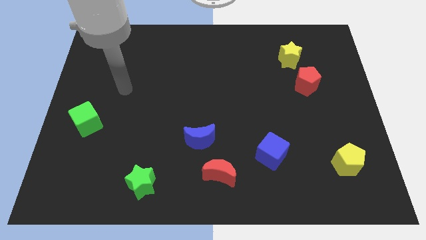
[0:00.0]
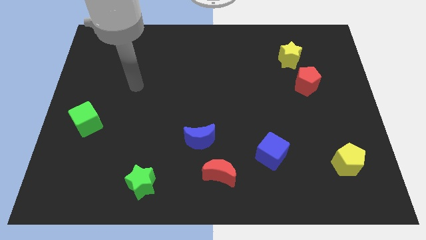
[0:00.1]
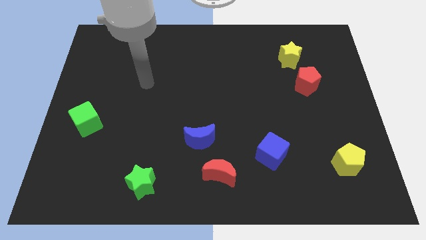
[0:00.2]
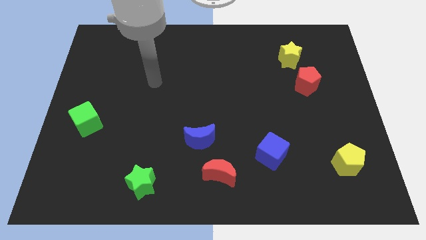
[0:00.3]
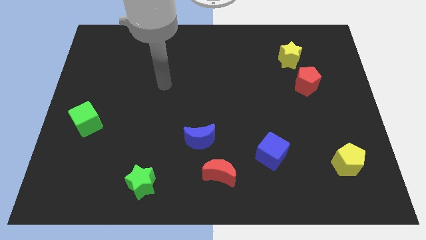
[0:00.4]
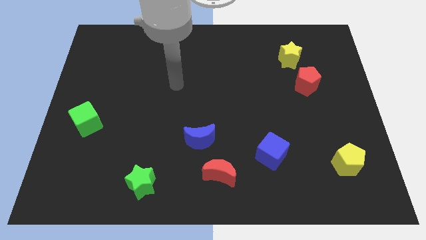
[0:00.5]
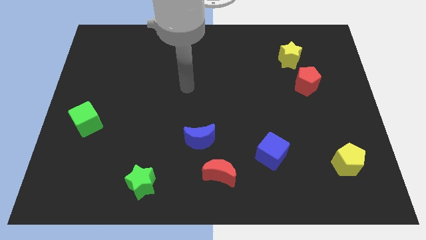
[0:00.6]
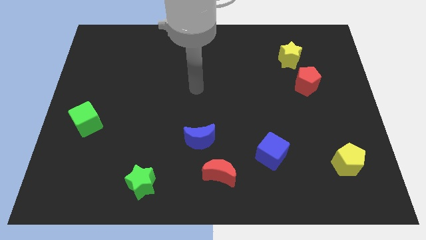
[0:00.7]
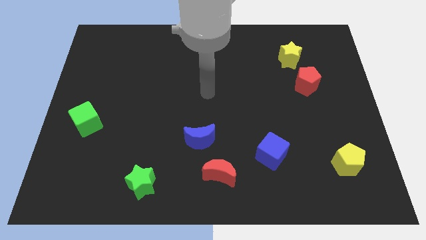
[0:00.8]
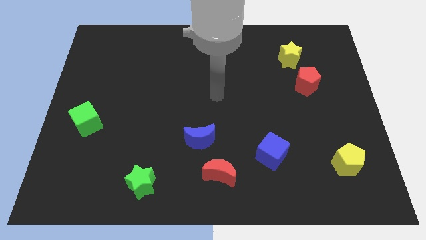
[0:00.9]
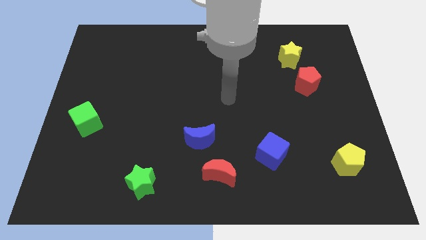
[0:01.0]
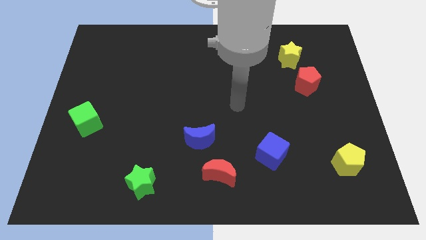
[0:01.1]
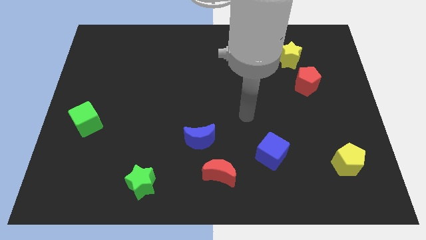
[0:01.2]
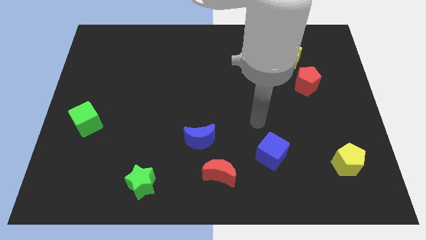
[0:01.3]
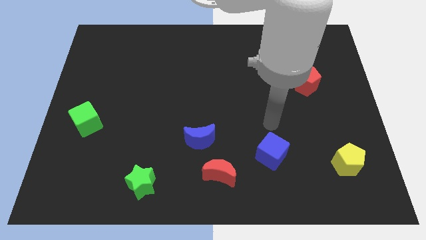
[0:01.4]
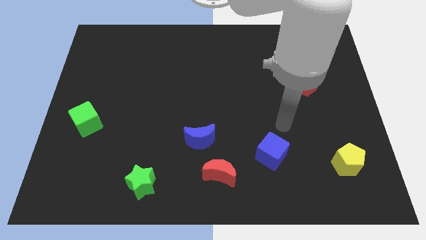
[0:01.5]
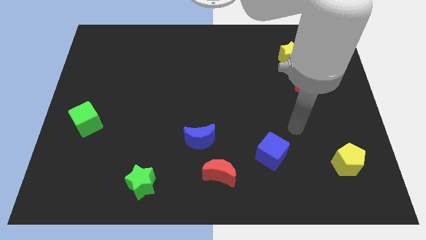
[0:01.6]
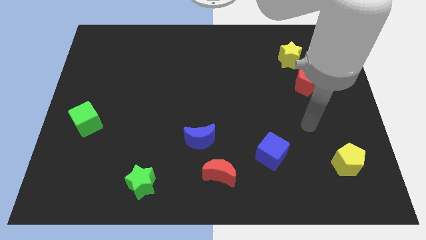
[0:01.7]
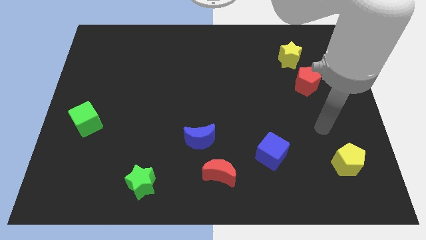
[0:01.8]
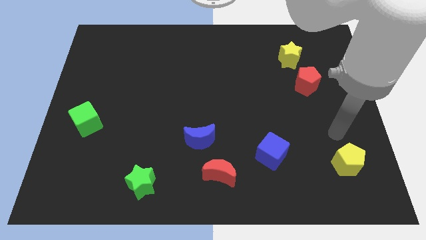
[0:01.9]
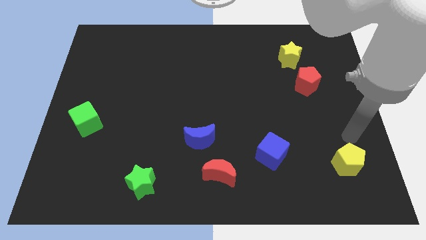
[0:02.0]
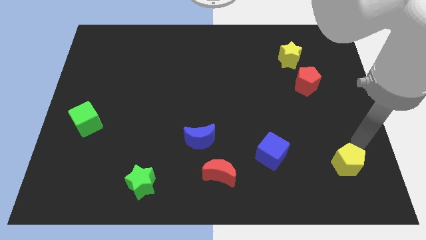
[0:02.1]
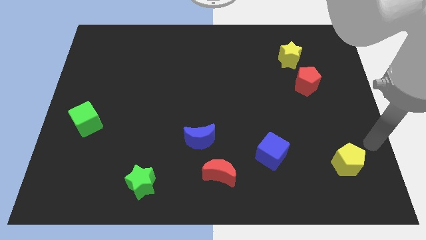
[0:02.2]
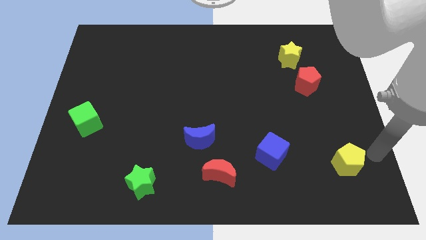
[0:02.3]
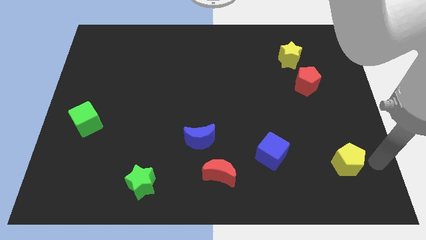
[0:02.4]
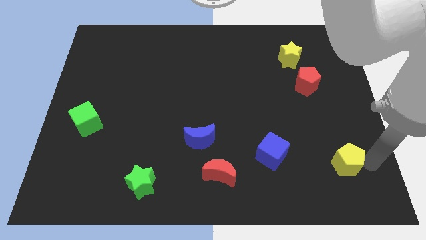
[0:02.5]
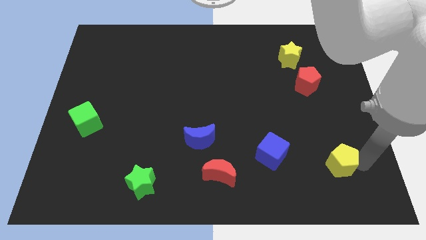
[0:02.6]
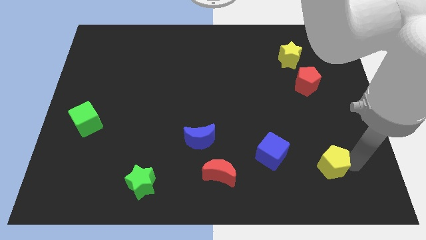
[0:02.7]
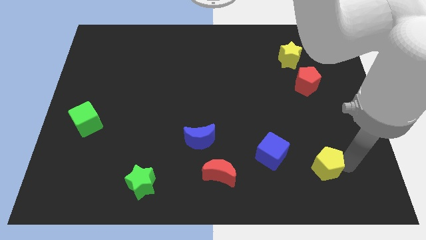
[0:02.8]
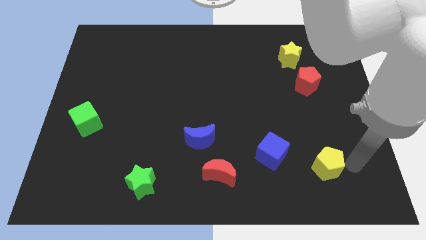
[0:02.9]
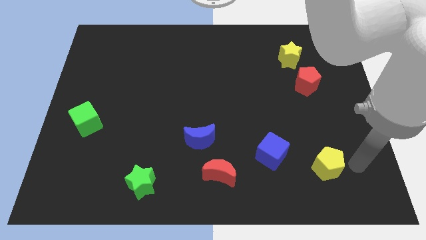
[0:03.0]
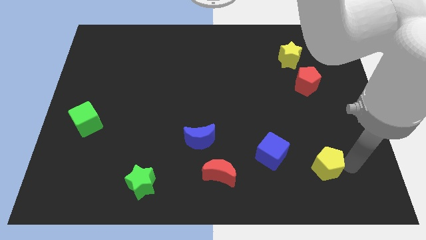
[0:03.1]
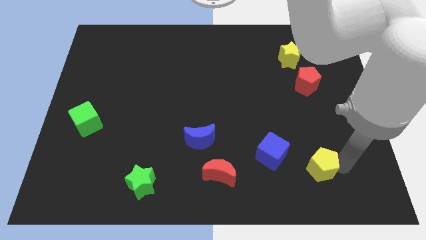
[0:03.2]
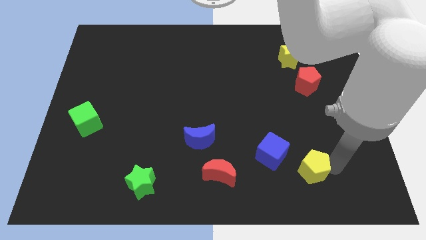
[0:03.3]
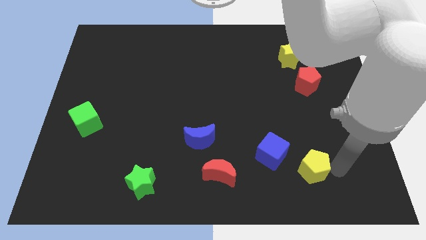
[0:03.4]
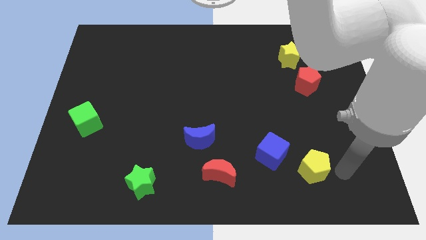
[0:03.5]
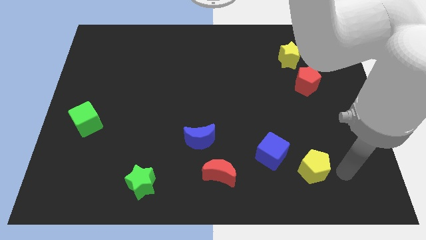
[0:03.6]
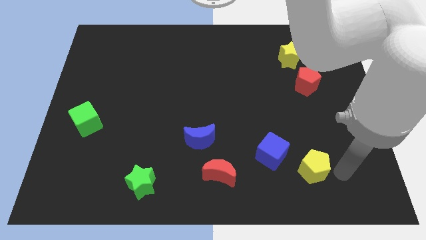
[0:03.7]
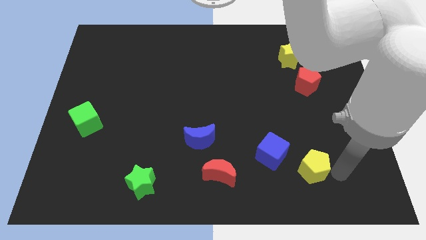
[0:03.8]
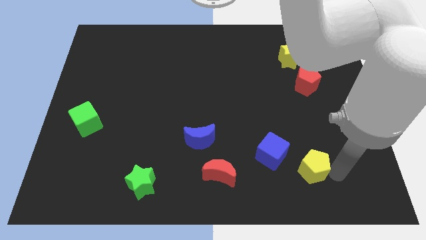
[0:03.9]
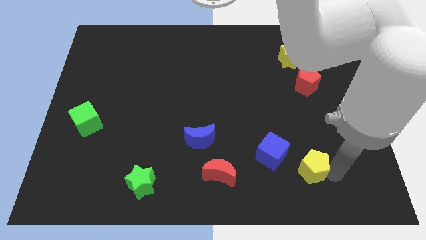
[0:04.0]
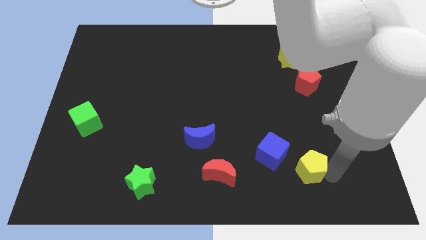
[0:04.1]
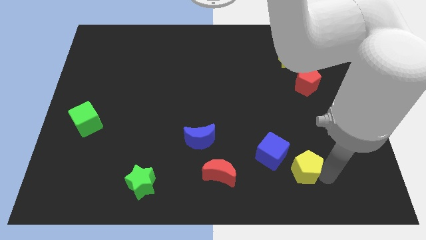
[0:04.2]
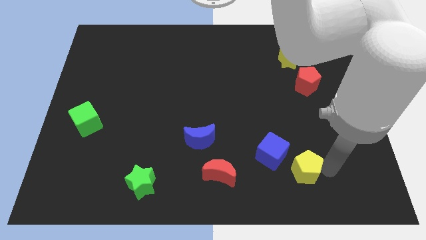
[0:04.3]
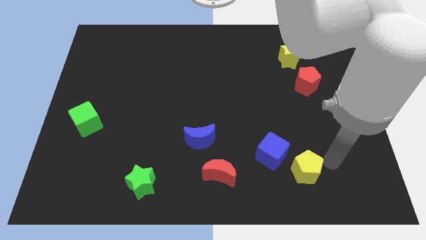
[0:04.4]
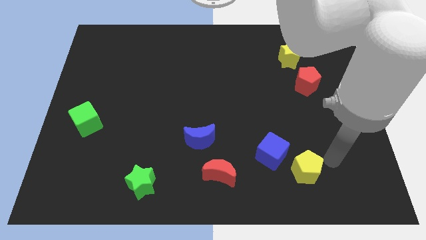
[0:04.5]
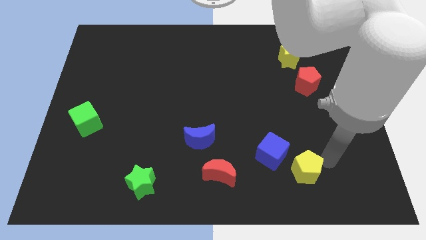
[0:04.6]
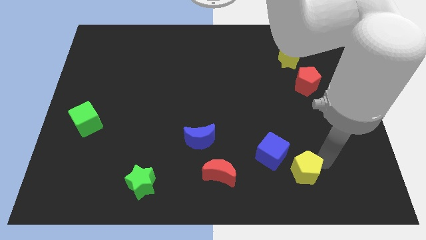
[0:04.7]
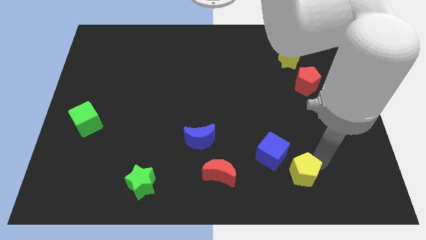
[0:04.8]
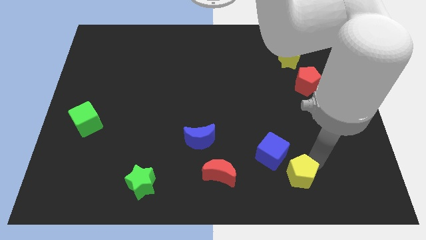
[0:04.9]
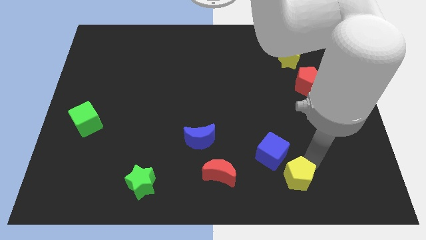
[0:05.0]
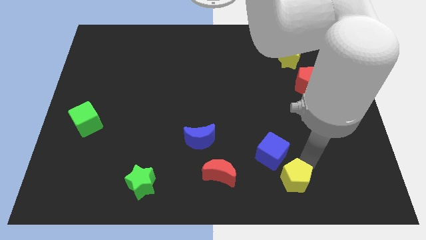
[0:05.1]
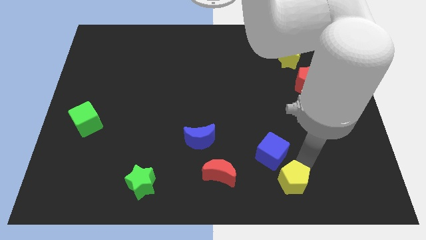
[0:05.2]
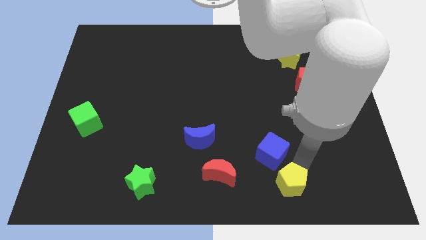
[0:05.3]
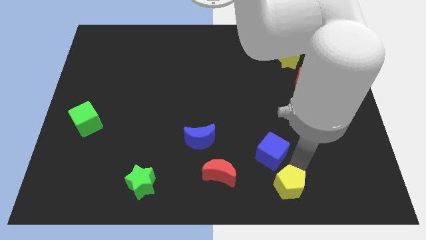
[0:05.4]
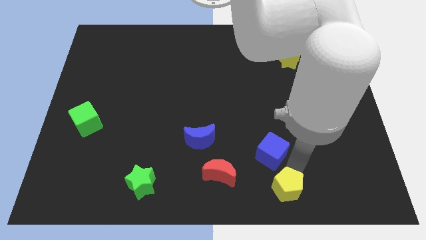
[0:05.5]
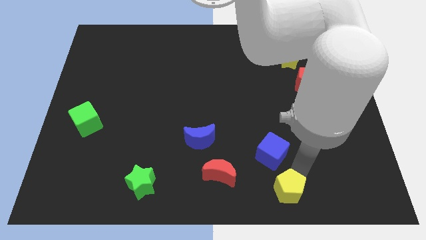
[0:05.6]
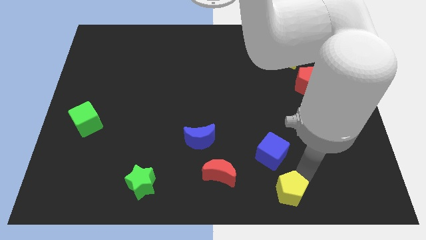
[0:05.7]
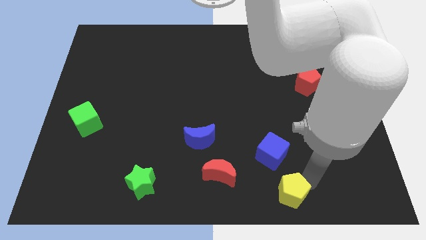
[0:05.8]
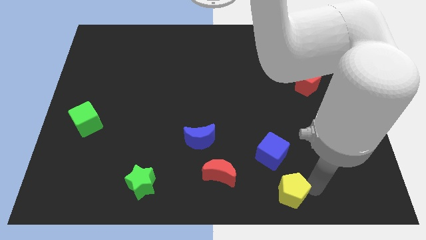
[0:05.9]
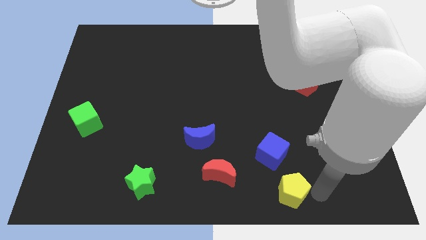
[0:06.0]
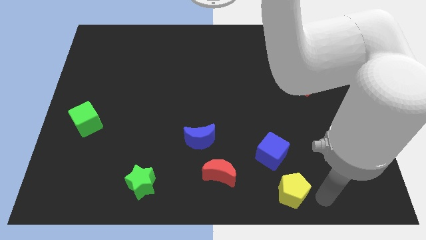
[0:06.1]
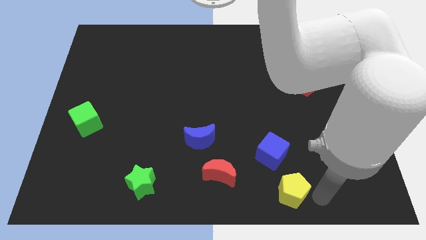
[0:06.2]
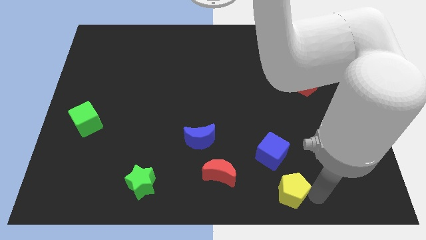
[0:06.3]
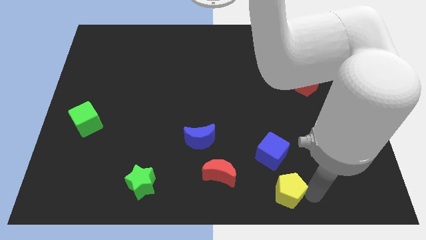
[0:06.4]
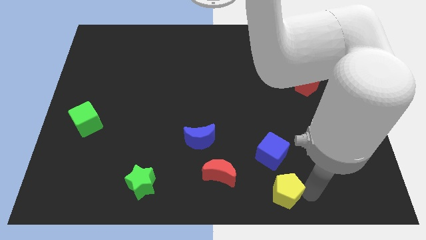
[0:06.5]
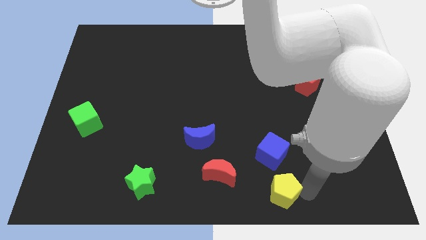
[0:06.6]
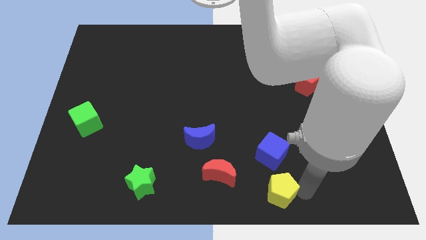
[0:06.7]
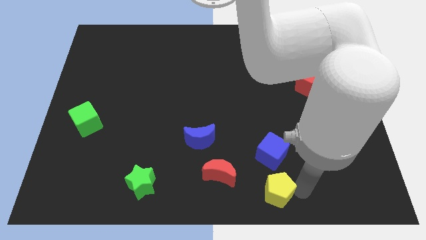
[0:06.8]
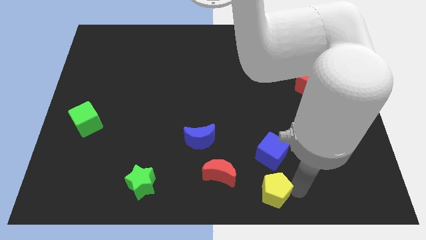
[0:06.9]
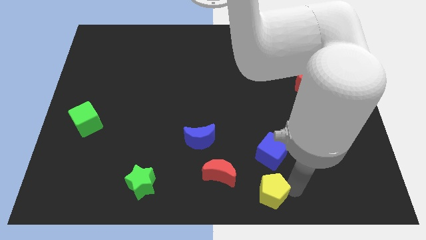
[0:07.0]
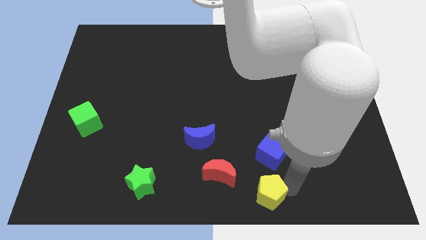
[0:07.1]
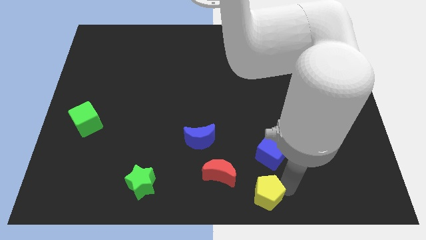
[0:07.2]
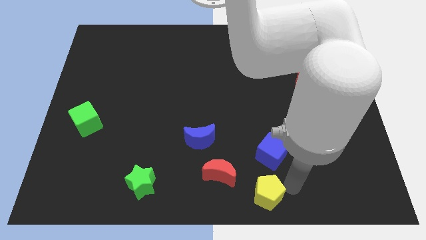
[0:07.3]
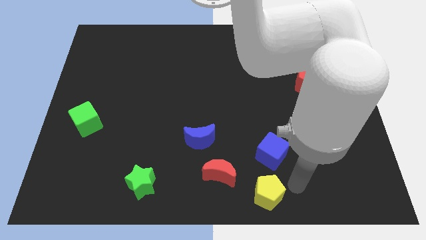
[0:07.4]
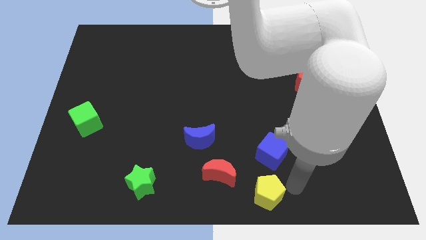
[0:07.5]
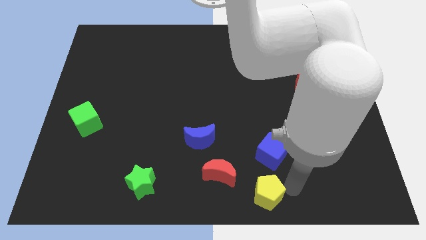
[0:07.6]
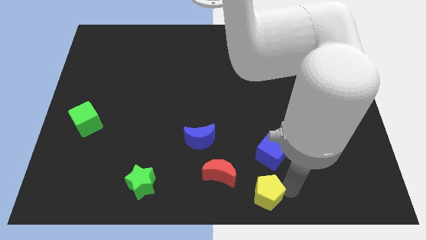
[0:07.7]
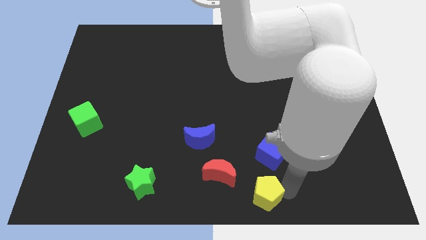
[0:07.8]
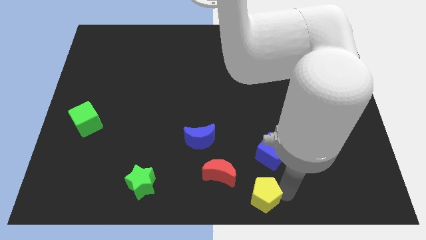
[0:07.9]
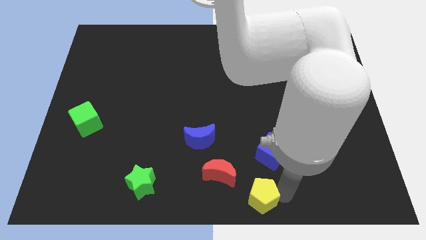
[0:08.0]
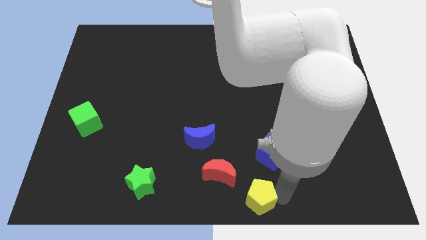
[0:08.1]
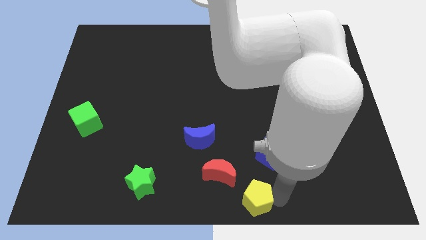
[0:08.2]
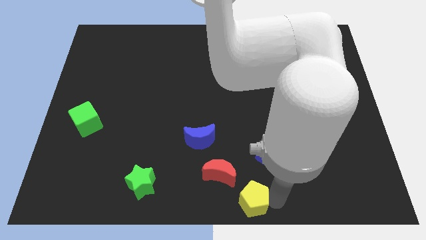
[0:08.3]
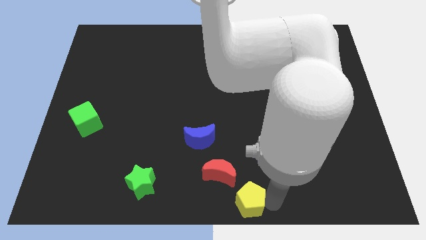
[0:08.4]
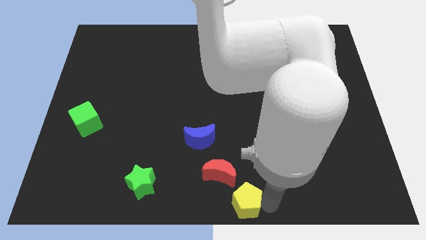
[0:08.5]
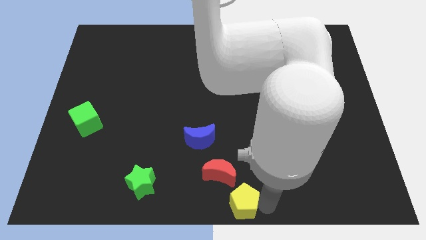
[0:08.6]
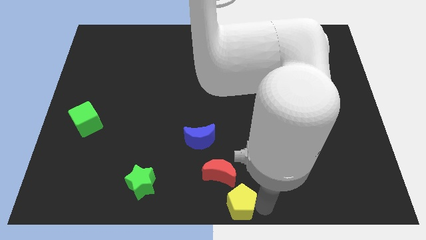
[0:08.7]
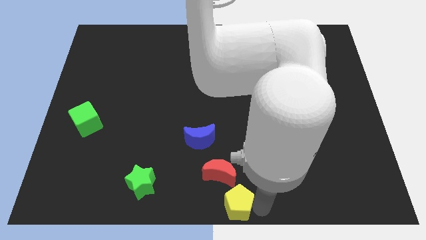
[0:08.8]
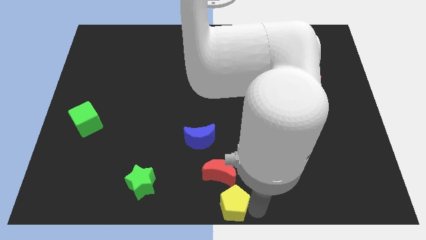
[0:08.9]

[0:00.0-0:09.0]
move the yellow pentagon to the left
